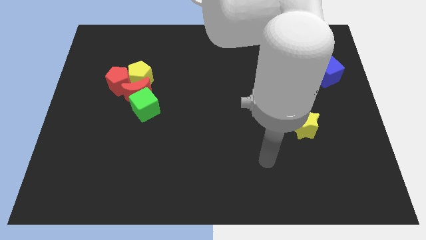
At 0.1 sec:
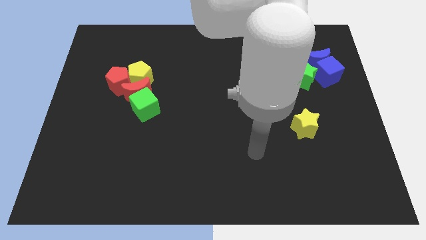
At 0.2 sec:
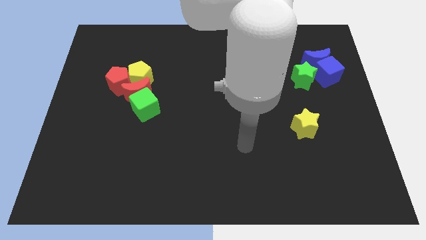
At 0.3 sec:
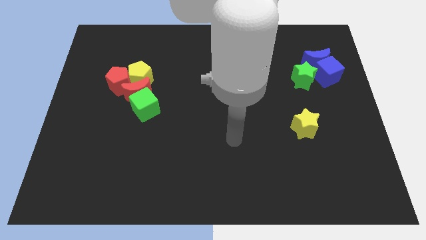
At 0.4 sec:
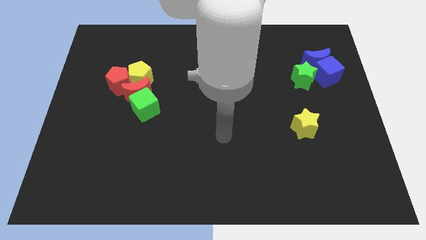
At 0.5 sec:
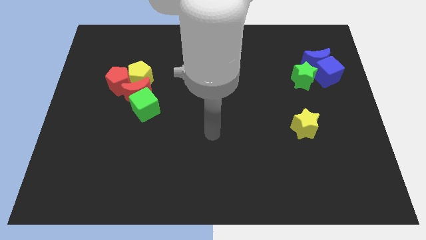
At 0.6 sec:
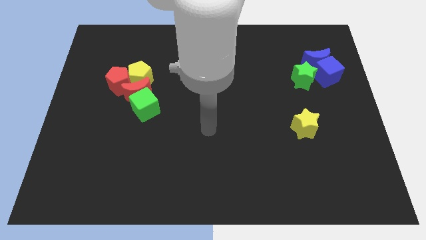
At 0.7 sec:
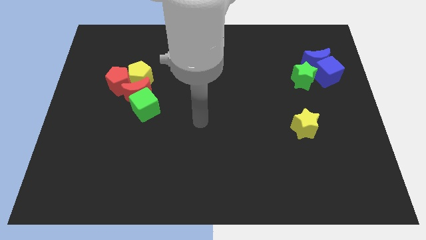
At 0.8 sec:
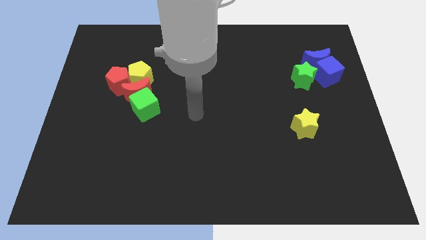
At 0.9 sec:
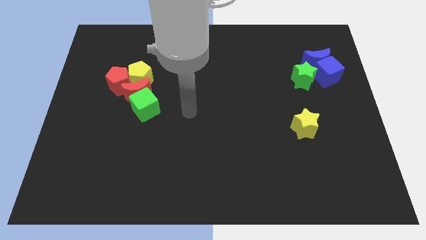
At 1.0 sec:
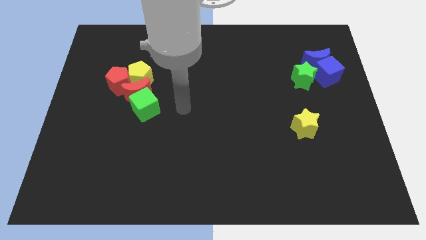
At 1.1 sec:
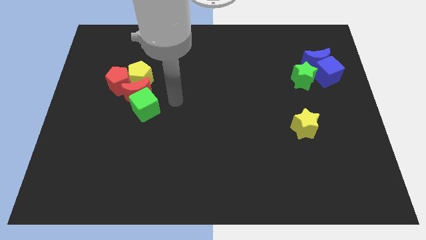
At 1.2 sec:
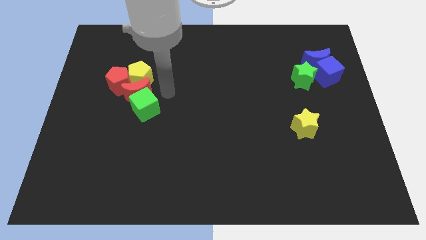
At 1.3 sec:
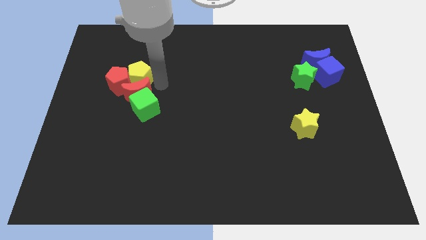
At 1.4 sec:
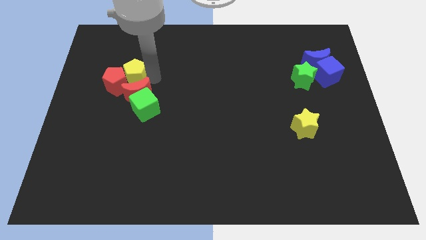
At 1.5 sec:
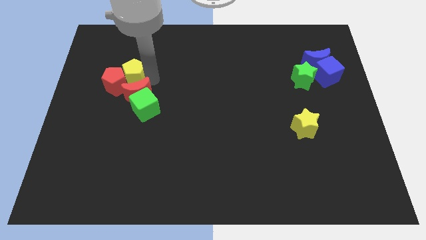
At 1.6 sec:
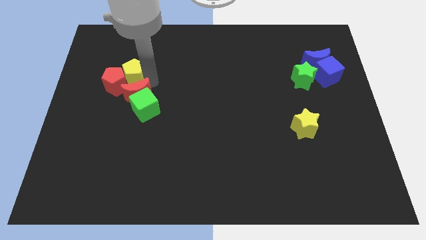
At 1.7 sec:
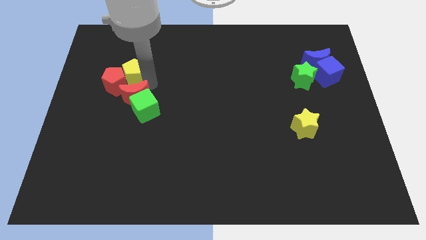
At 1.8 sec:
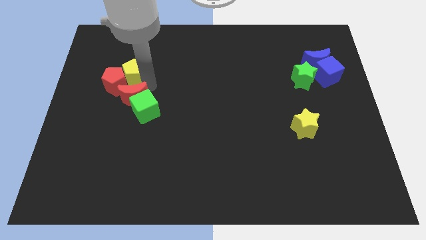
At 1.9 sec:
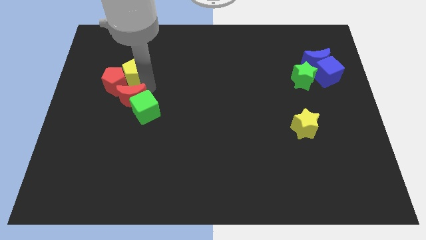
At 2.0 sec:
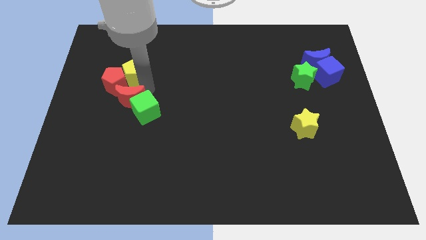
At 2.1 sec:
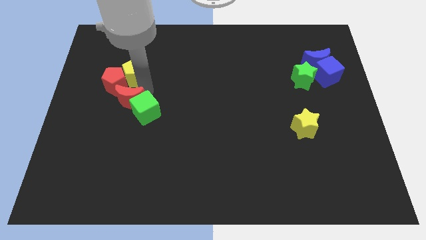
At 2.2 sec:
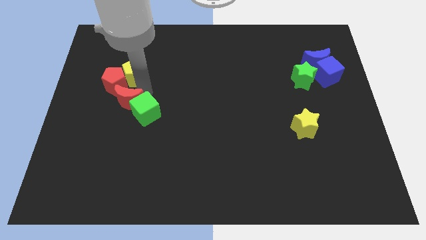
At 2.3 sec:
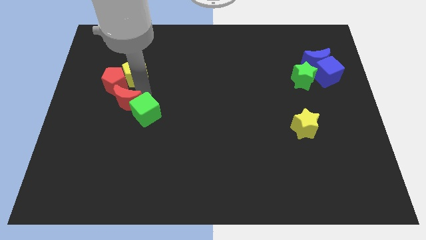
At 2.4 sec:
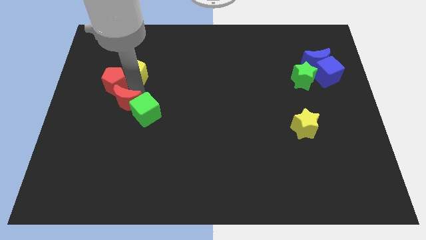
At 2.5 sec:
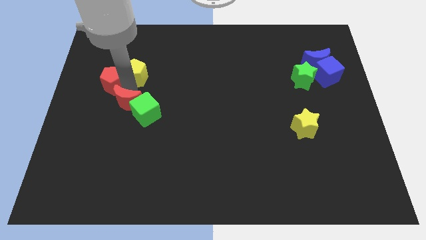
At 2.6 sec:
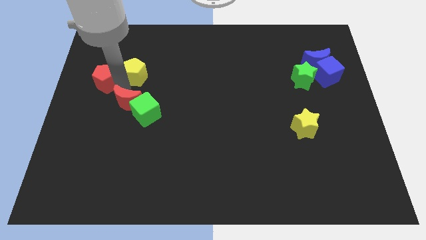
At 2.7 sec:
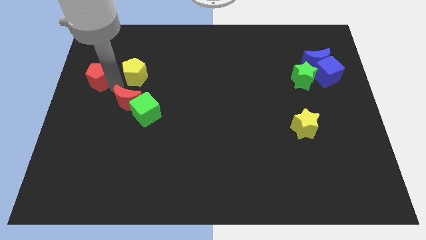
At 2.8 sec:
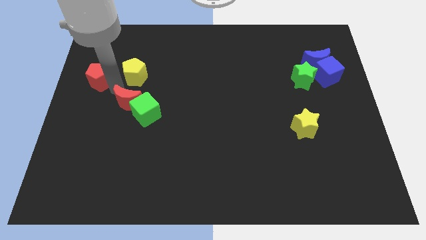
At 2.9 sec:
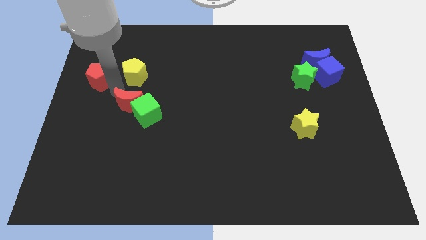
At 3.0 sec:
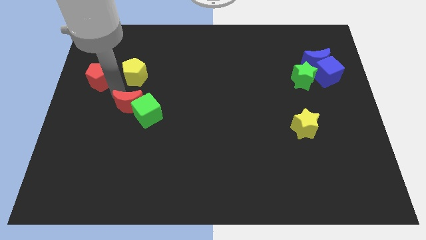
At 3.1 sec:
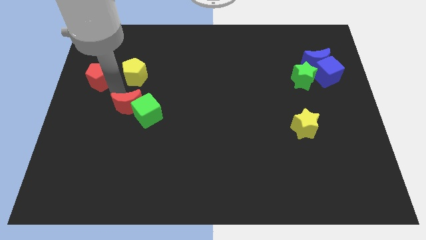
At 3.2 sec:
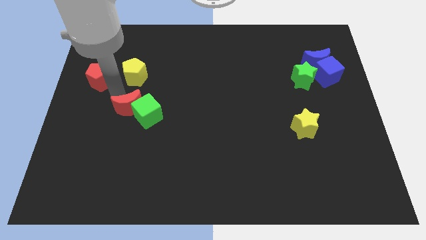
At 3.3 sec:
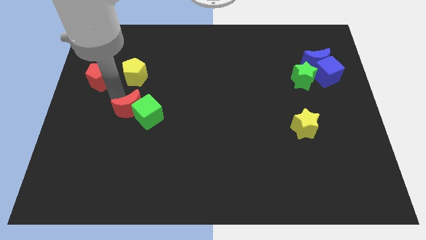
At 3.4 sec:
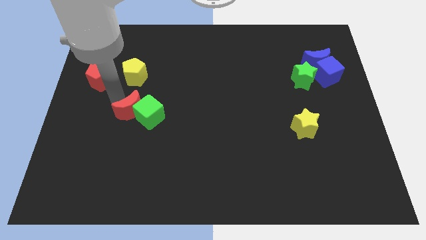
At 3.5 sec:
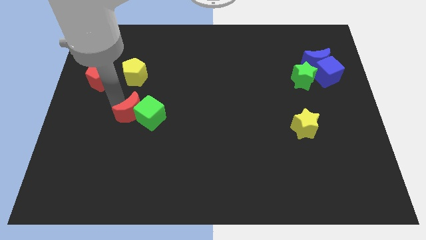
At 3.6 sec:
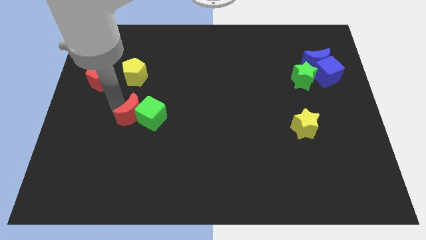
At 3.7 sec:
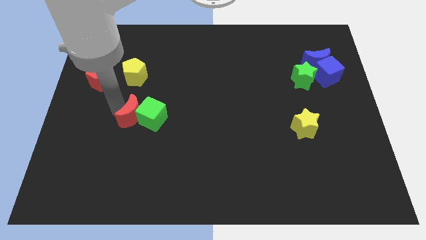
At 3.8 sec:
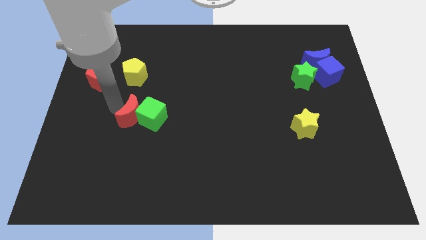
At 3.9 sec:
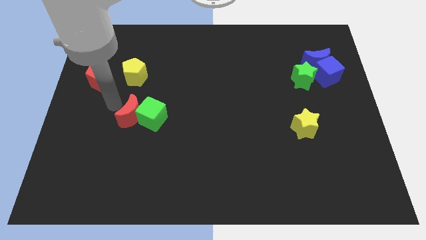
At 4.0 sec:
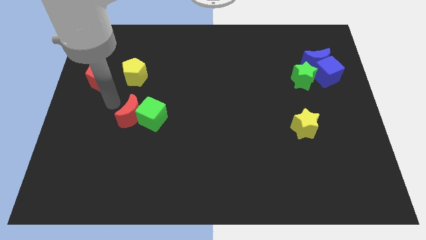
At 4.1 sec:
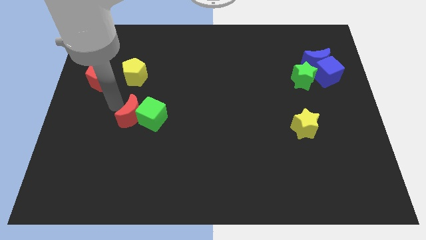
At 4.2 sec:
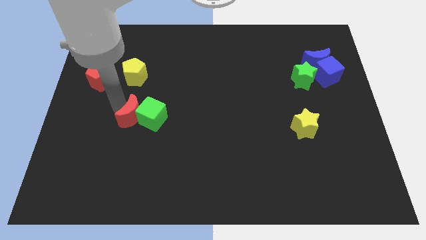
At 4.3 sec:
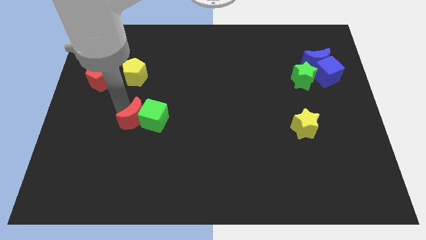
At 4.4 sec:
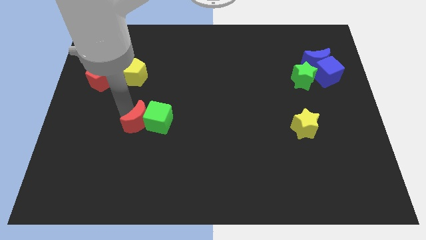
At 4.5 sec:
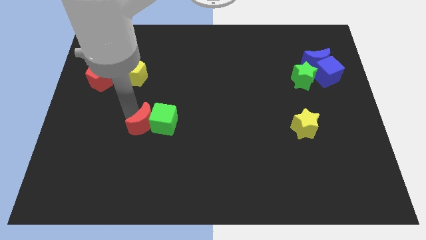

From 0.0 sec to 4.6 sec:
separate the red moon from the green cube, yellow pentagon, and red pentagon

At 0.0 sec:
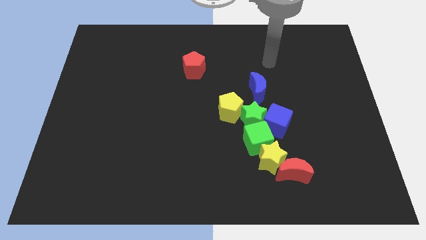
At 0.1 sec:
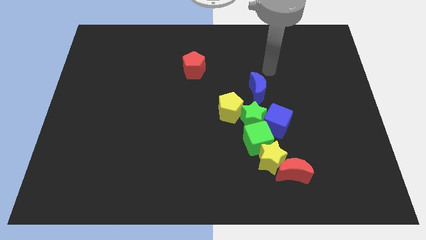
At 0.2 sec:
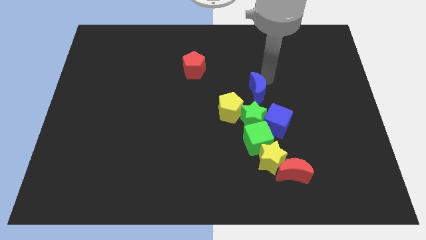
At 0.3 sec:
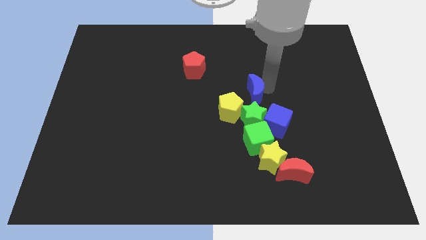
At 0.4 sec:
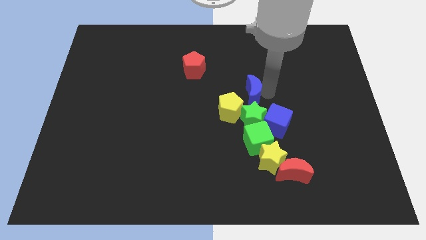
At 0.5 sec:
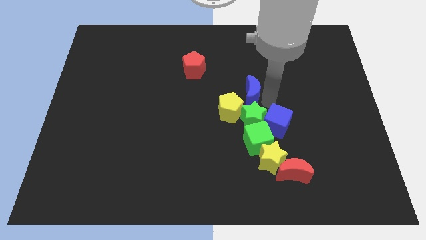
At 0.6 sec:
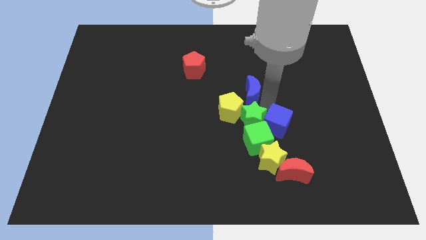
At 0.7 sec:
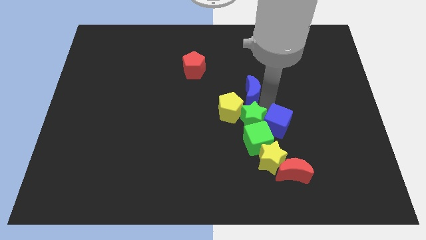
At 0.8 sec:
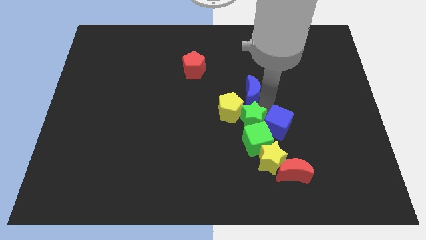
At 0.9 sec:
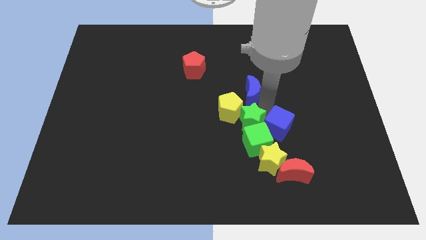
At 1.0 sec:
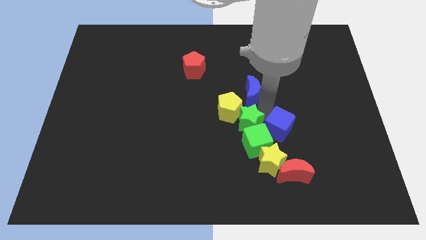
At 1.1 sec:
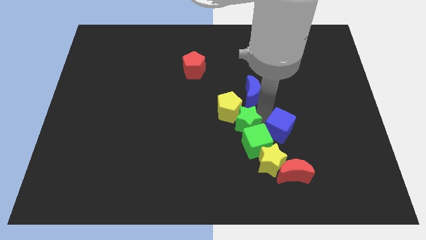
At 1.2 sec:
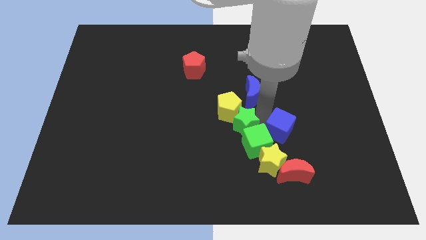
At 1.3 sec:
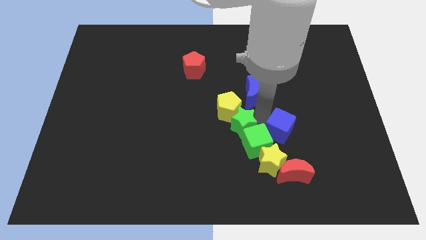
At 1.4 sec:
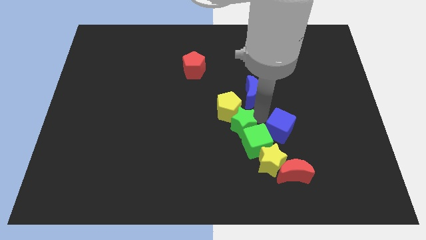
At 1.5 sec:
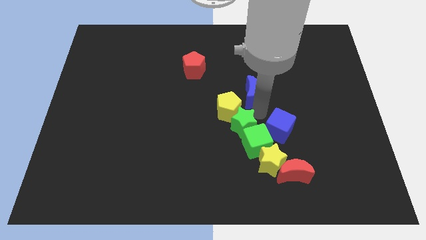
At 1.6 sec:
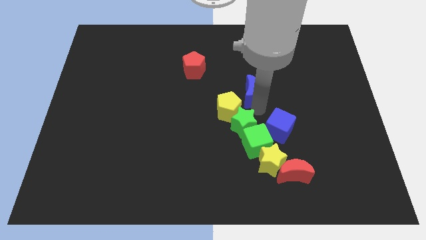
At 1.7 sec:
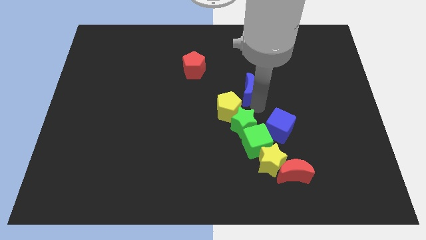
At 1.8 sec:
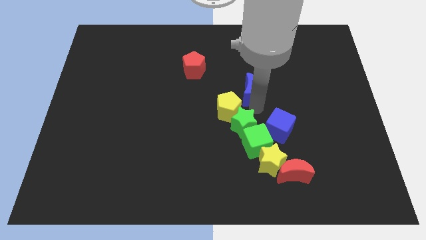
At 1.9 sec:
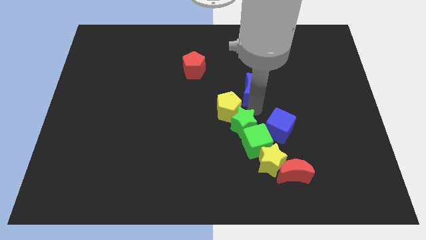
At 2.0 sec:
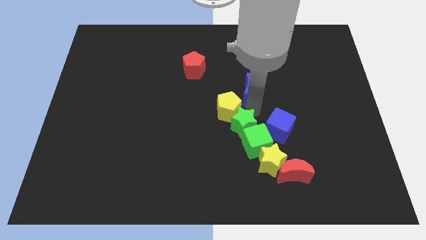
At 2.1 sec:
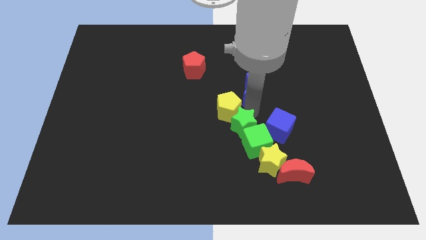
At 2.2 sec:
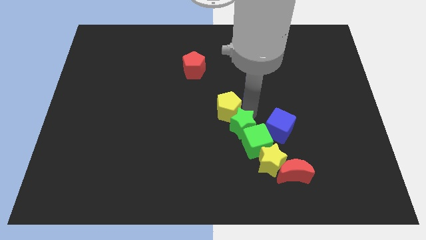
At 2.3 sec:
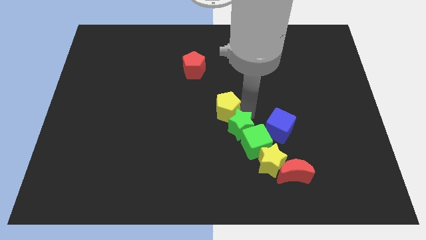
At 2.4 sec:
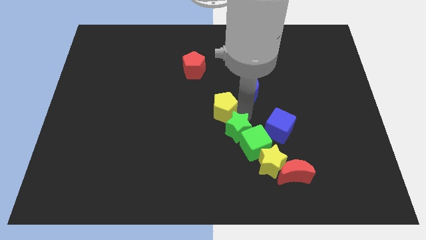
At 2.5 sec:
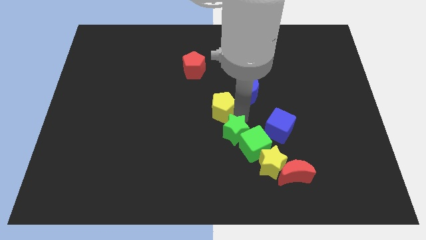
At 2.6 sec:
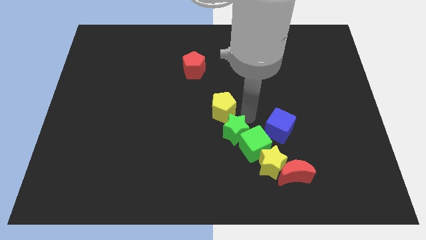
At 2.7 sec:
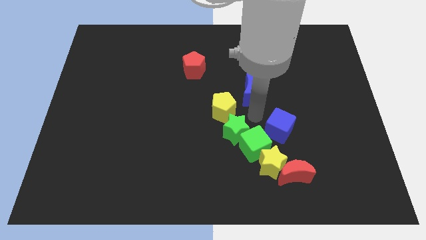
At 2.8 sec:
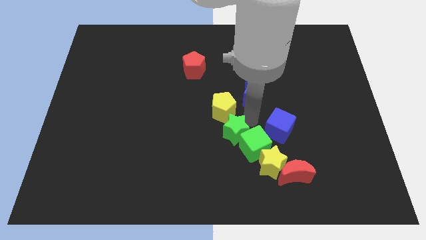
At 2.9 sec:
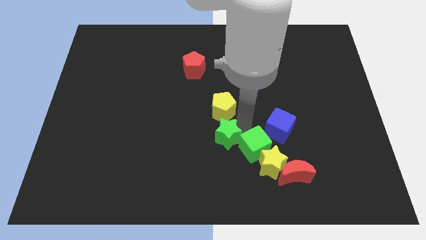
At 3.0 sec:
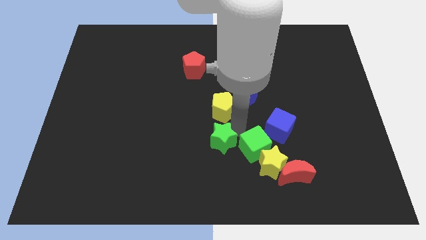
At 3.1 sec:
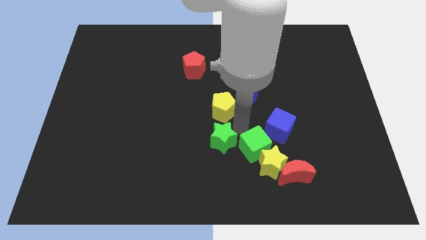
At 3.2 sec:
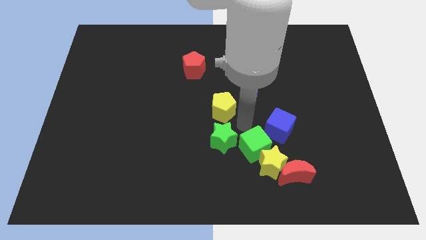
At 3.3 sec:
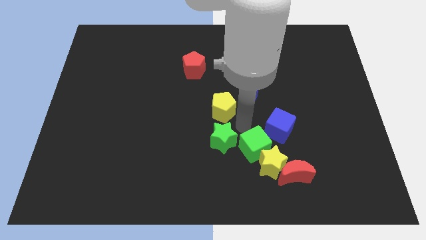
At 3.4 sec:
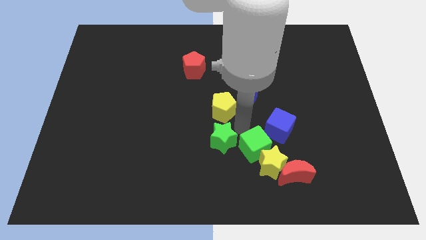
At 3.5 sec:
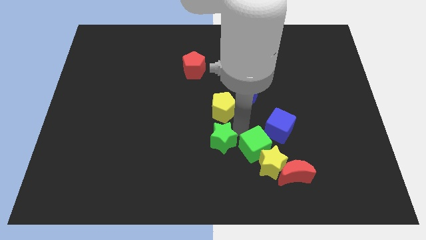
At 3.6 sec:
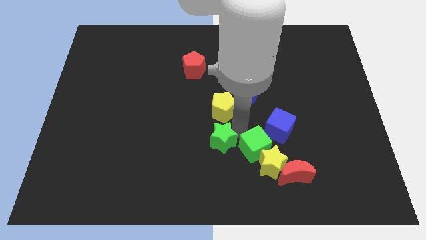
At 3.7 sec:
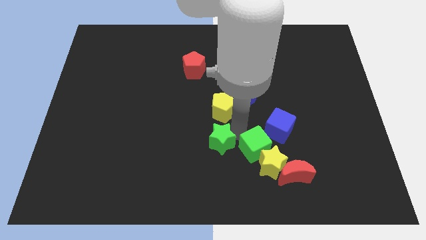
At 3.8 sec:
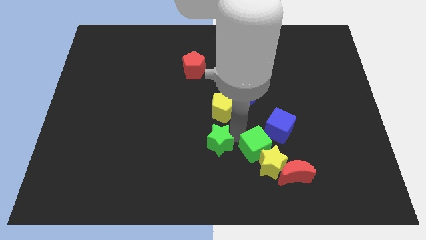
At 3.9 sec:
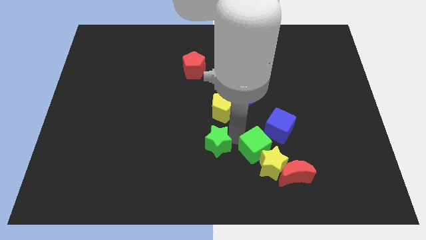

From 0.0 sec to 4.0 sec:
separate the green star from the group

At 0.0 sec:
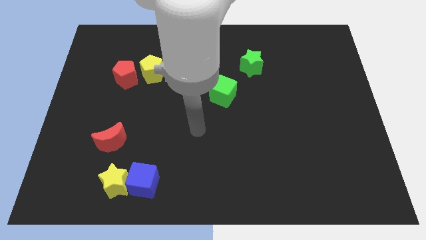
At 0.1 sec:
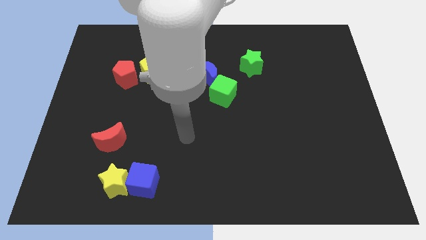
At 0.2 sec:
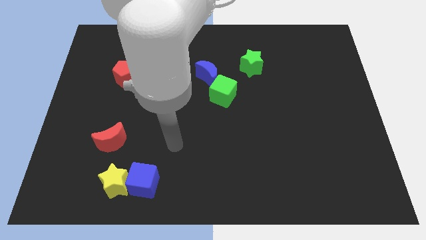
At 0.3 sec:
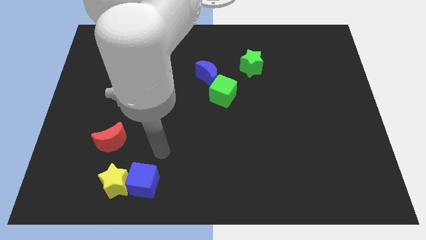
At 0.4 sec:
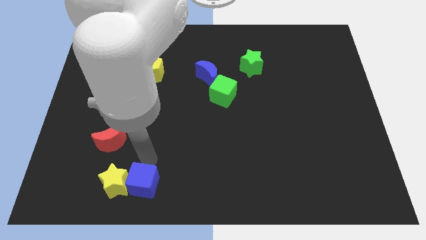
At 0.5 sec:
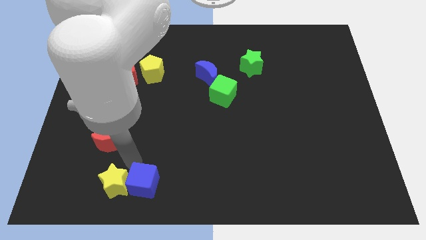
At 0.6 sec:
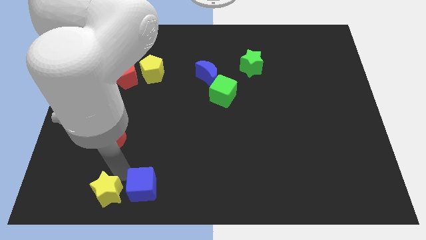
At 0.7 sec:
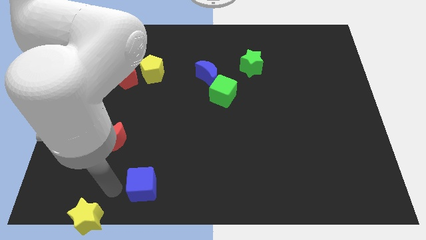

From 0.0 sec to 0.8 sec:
move the blue cube away from the yellow star
